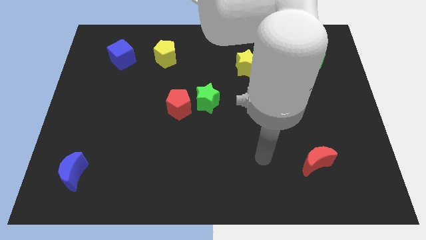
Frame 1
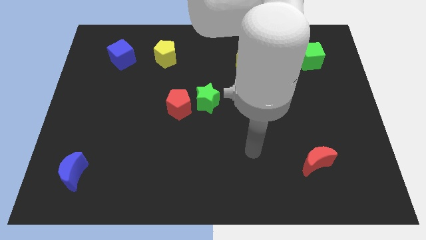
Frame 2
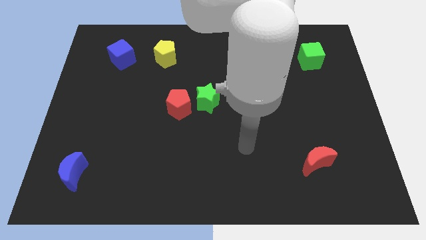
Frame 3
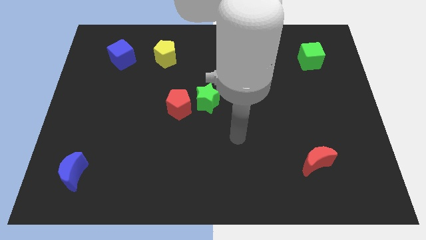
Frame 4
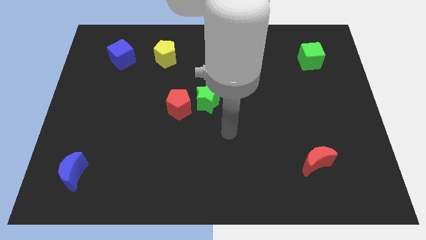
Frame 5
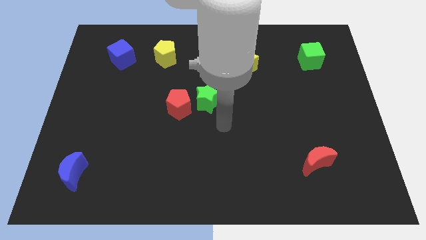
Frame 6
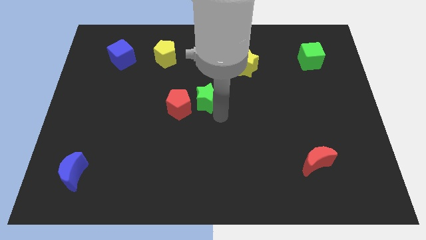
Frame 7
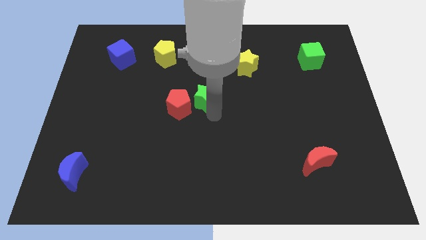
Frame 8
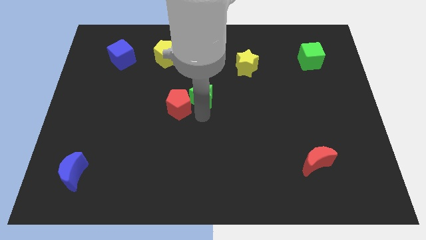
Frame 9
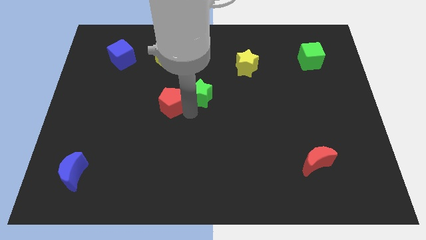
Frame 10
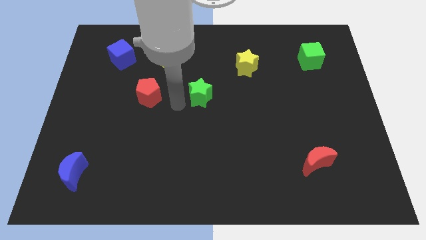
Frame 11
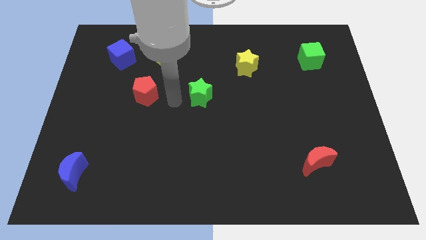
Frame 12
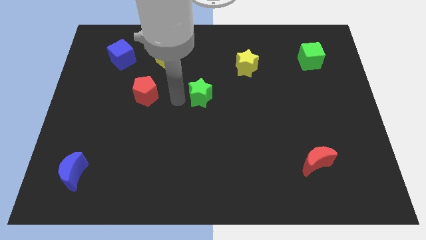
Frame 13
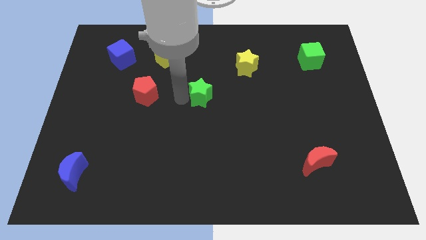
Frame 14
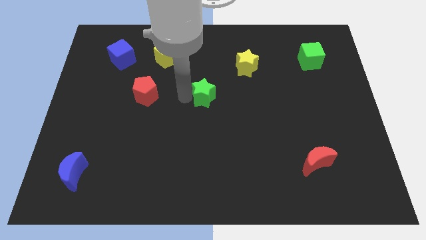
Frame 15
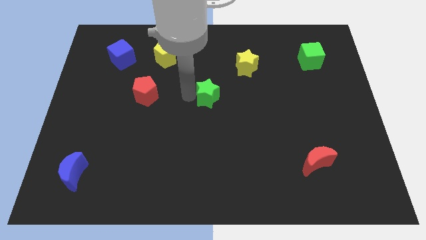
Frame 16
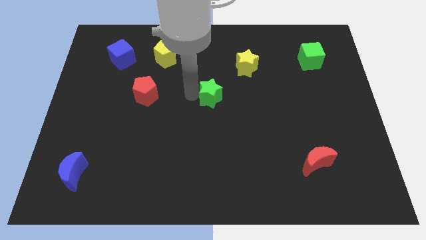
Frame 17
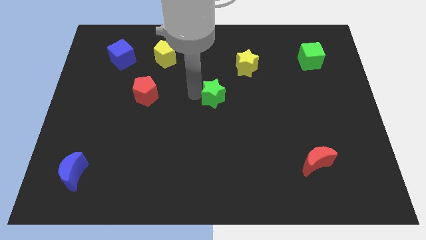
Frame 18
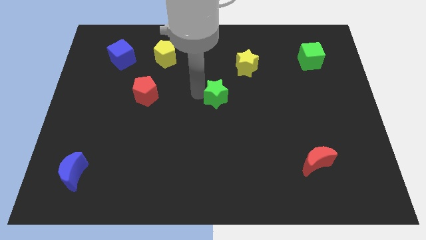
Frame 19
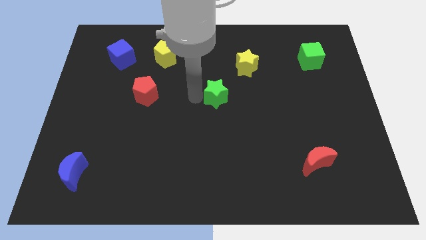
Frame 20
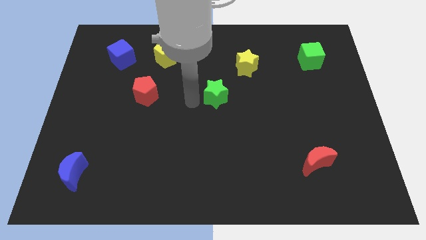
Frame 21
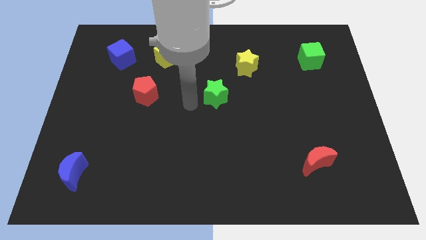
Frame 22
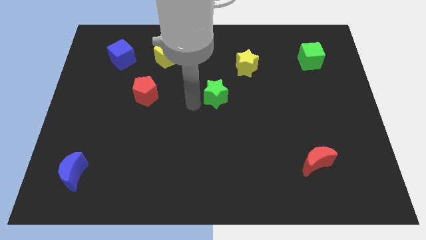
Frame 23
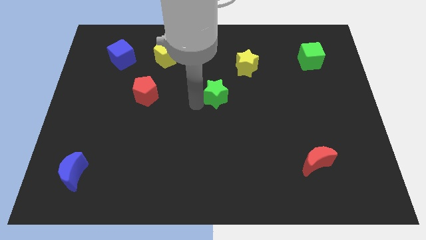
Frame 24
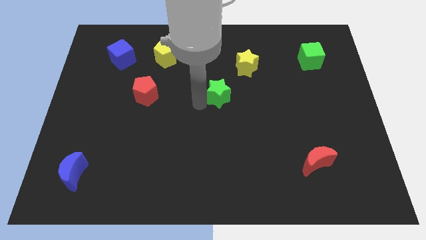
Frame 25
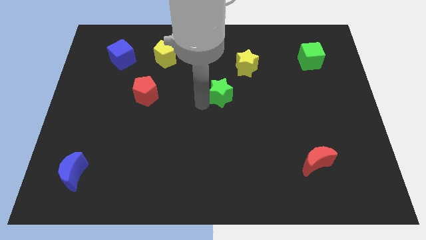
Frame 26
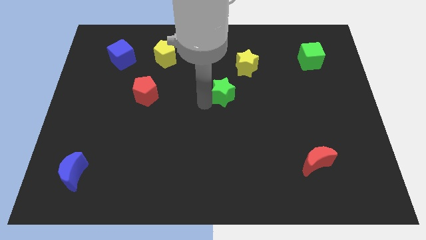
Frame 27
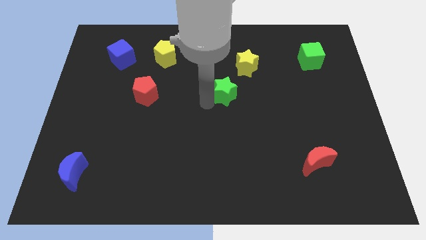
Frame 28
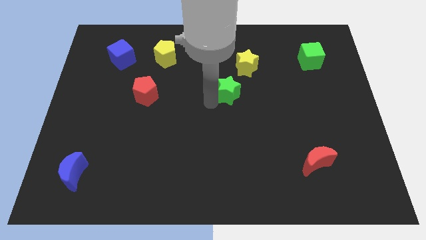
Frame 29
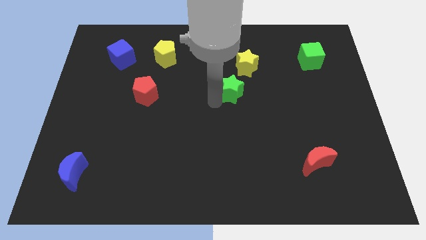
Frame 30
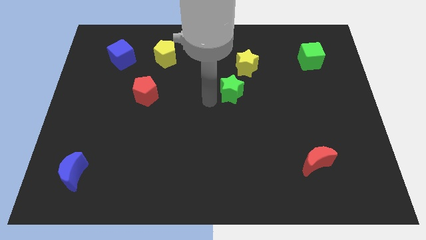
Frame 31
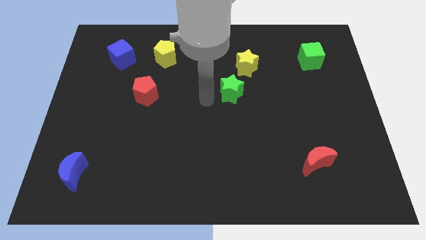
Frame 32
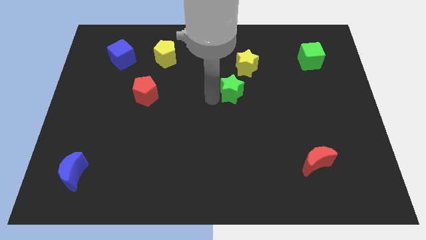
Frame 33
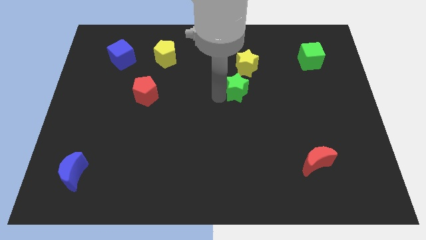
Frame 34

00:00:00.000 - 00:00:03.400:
move the green star up and to the right diagonally somewhat

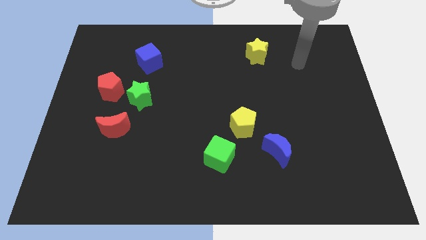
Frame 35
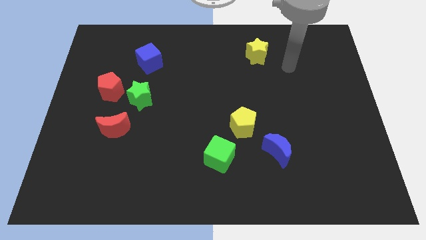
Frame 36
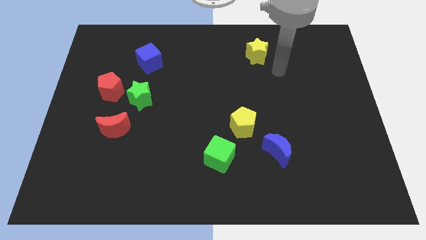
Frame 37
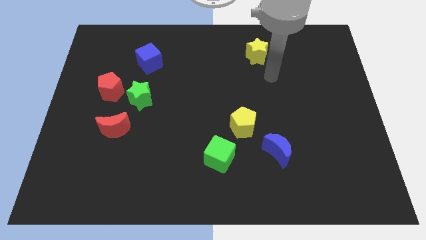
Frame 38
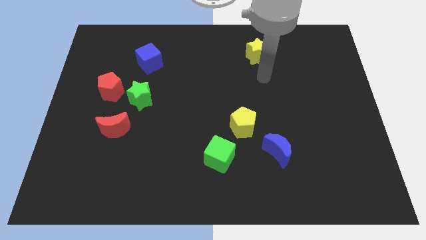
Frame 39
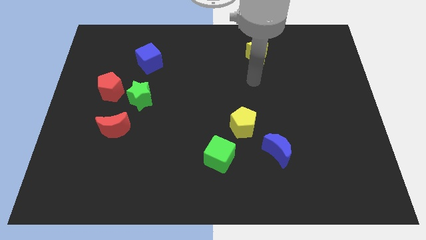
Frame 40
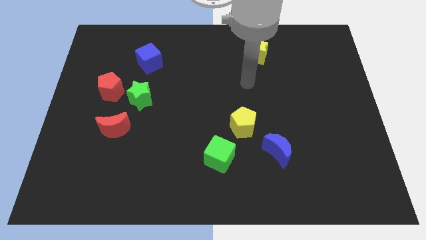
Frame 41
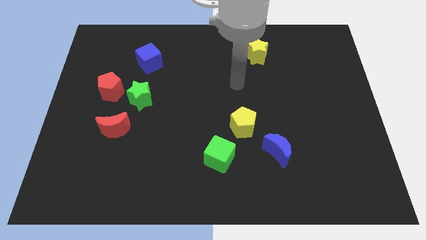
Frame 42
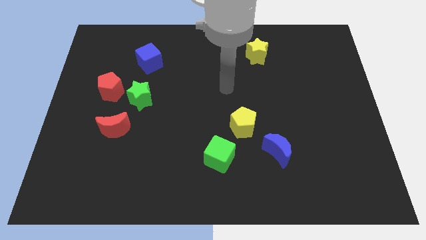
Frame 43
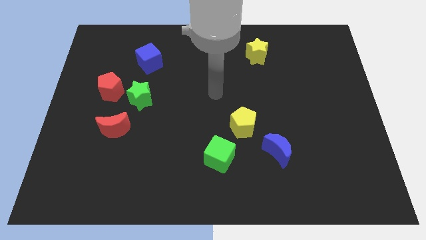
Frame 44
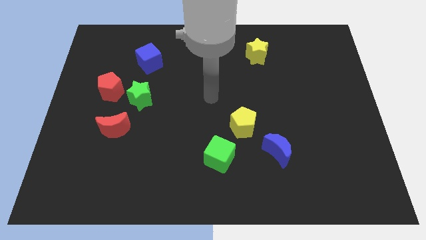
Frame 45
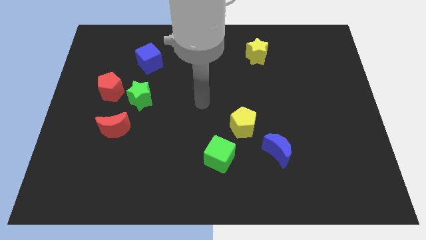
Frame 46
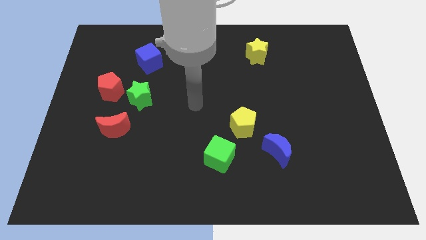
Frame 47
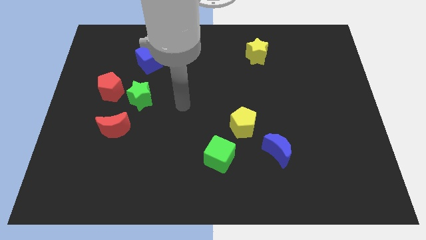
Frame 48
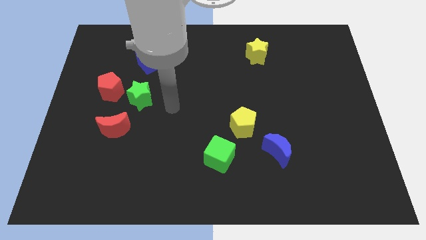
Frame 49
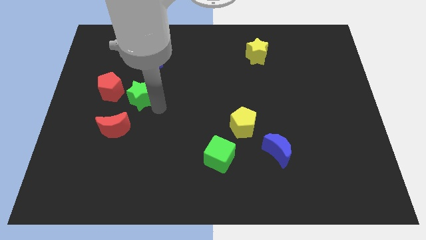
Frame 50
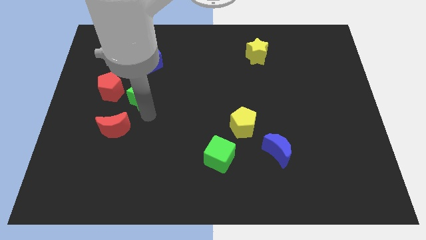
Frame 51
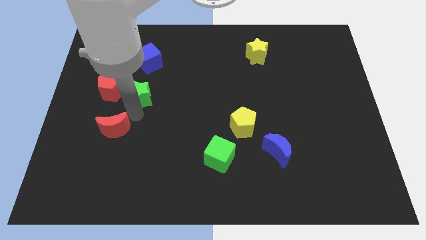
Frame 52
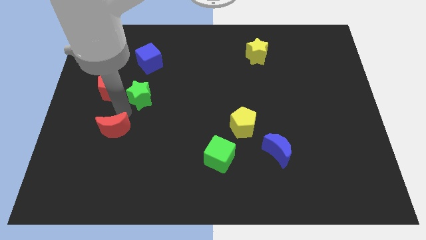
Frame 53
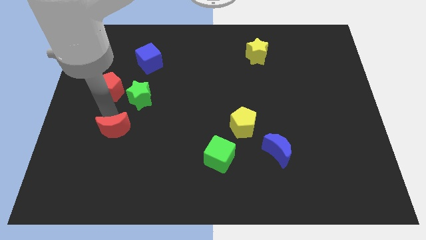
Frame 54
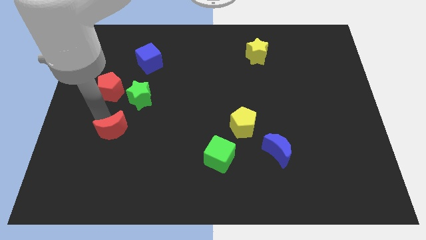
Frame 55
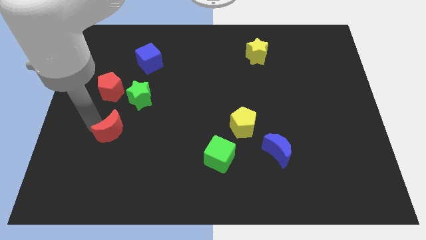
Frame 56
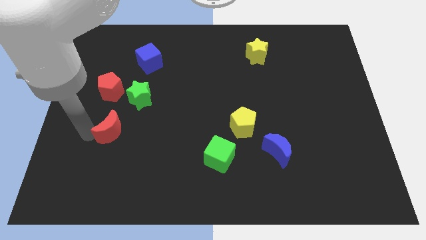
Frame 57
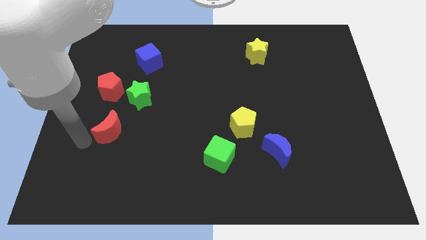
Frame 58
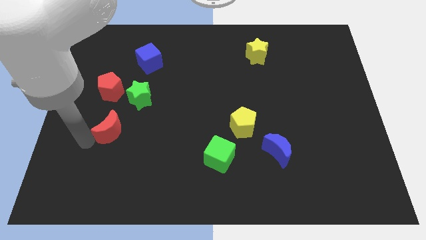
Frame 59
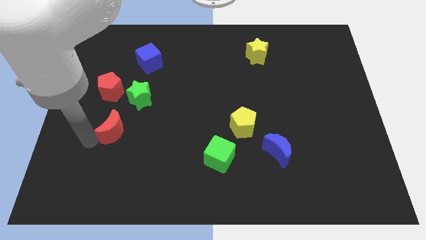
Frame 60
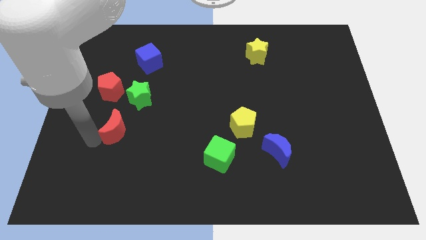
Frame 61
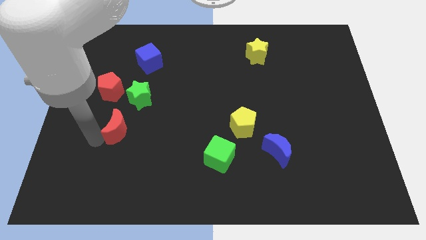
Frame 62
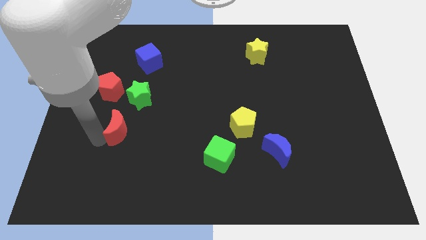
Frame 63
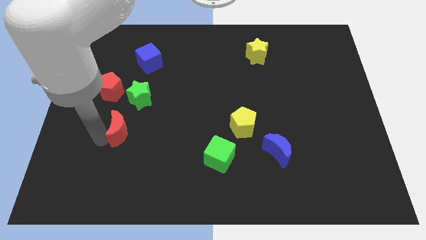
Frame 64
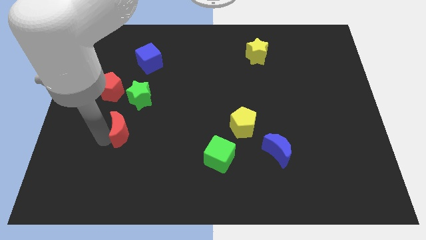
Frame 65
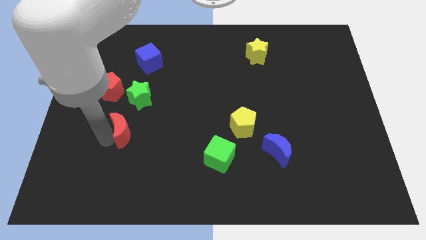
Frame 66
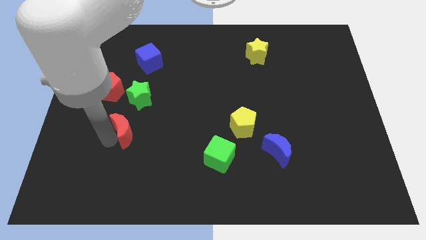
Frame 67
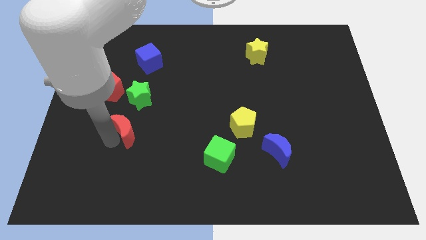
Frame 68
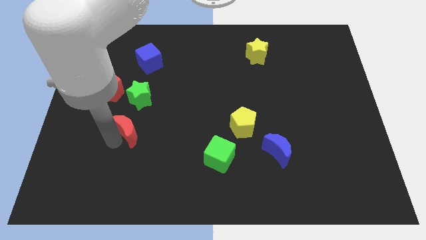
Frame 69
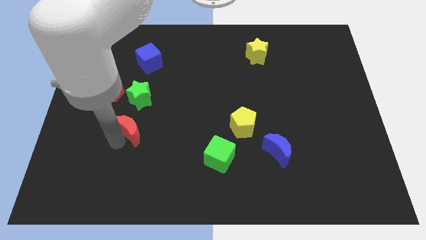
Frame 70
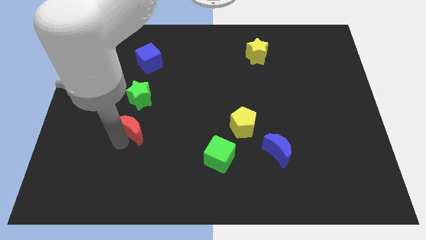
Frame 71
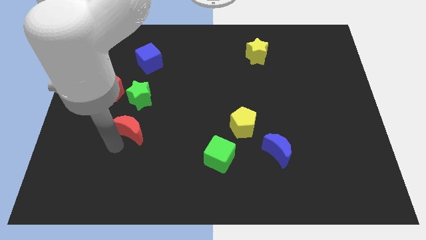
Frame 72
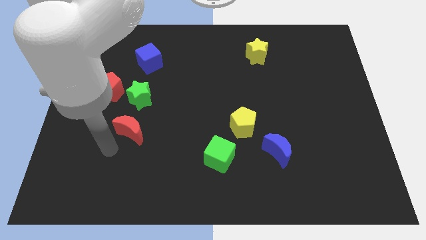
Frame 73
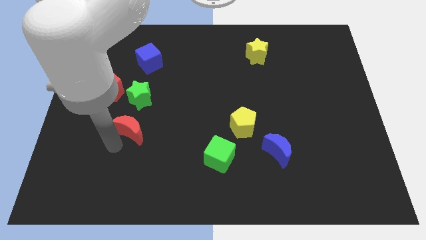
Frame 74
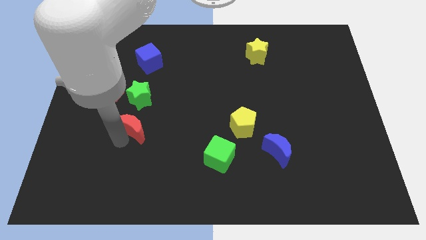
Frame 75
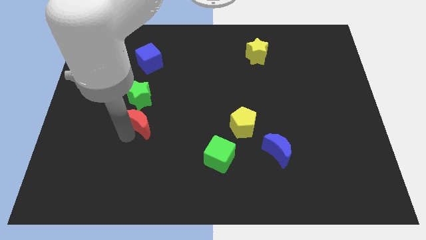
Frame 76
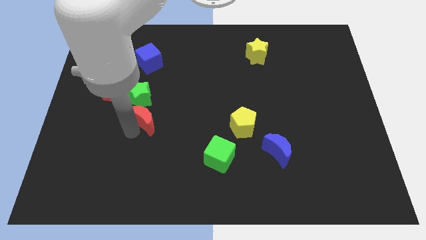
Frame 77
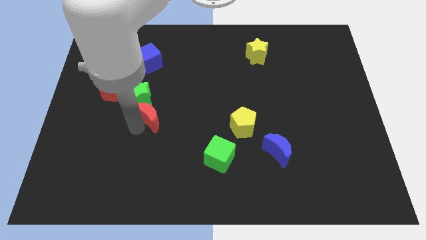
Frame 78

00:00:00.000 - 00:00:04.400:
slide the red moon a little up and to the right diagonally

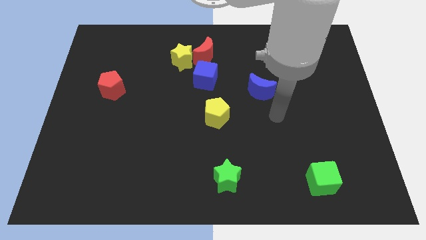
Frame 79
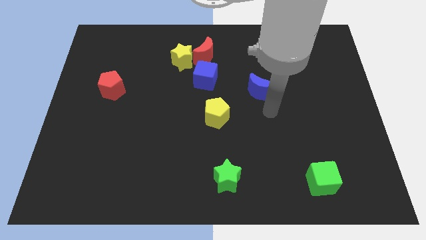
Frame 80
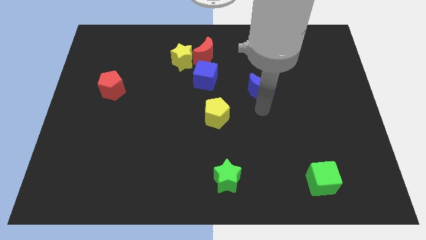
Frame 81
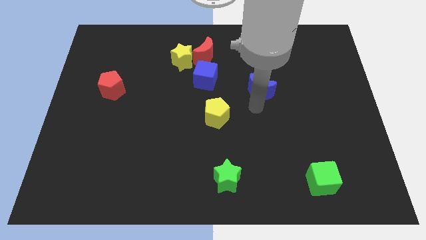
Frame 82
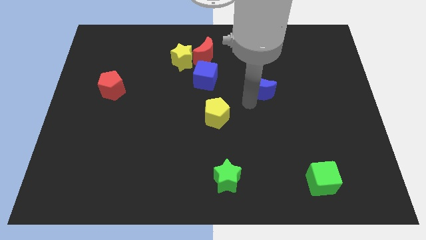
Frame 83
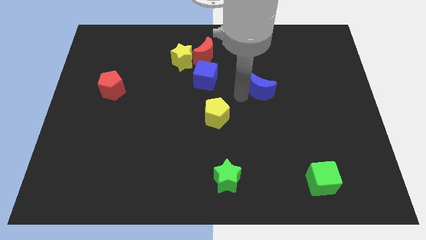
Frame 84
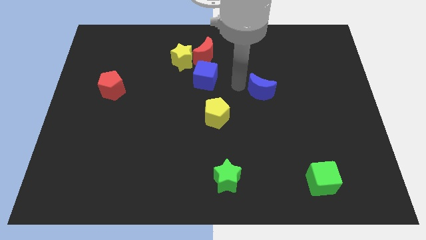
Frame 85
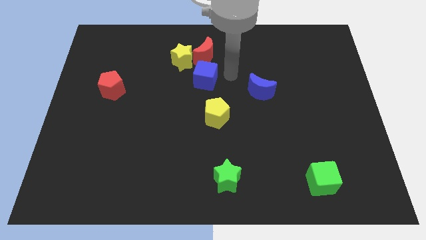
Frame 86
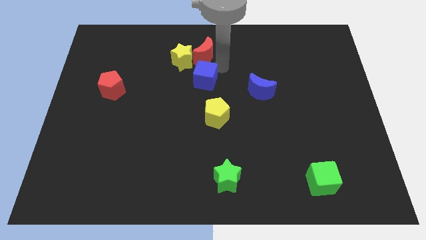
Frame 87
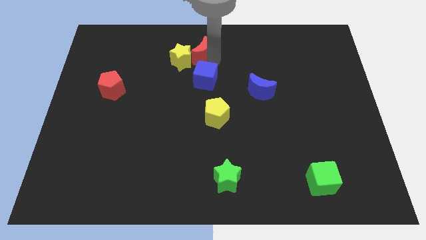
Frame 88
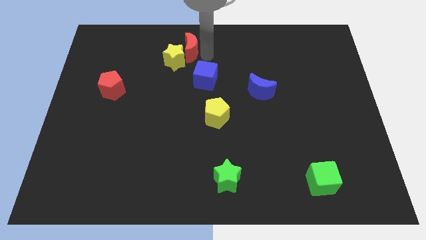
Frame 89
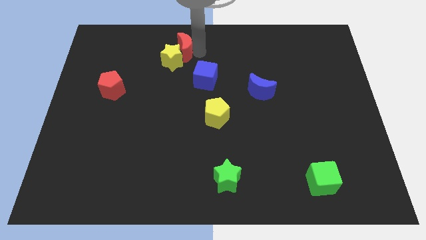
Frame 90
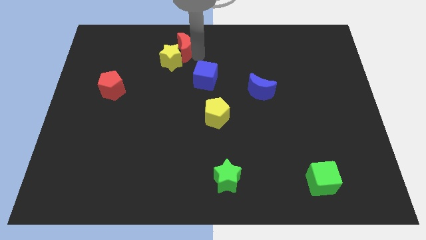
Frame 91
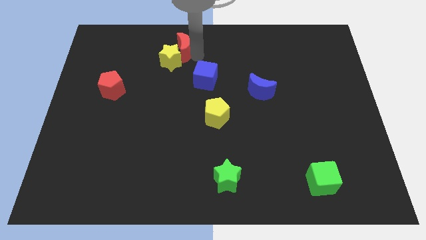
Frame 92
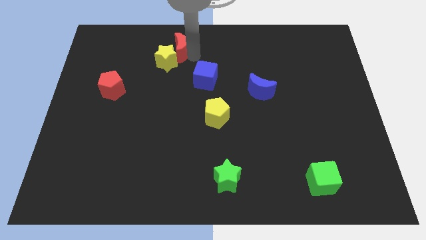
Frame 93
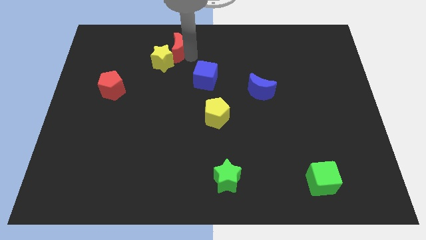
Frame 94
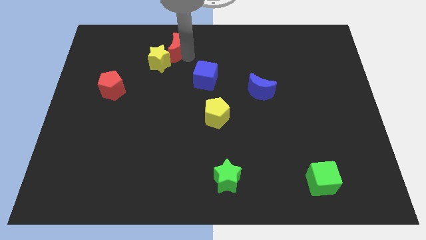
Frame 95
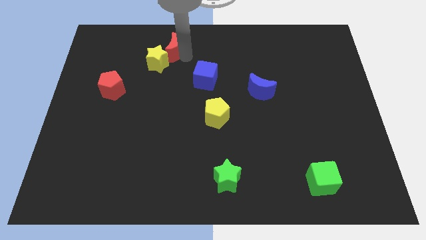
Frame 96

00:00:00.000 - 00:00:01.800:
slightly move the yellow star to the left
